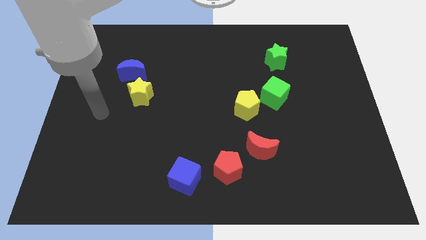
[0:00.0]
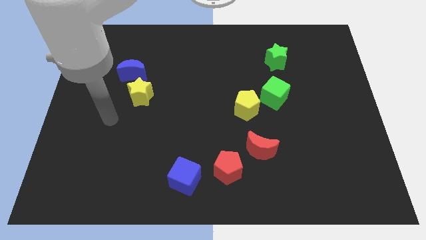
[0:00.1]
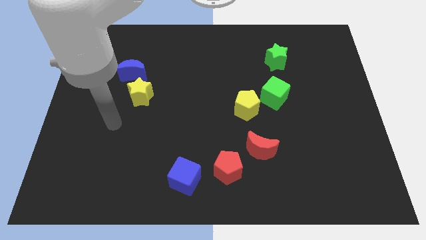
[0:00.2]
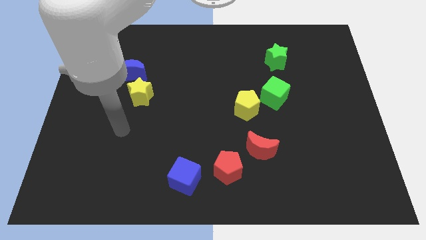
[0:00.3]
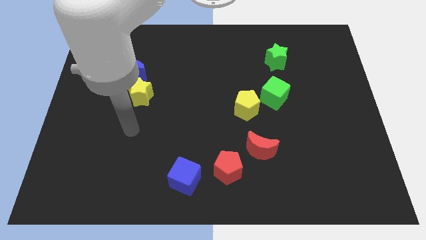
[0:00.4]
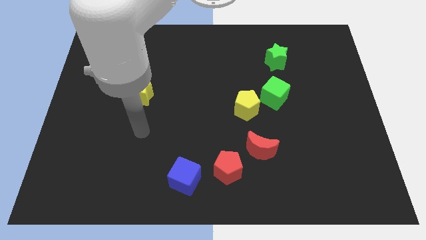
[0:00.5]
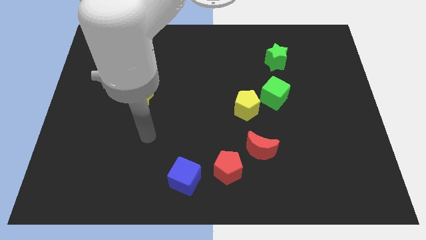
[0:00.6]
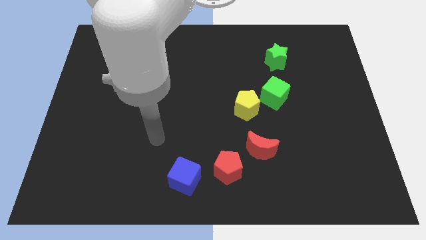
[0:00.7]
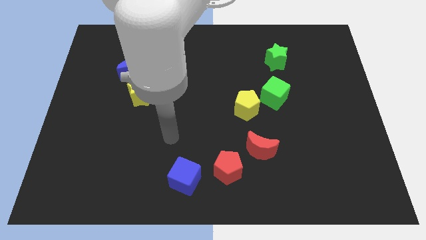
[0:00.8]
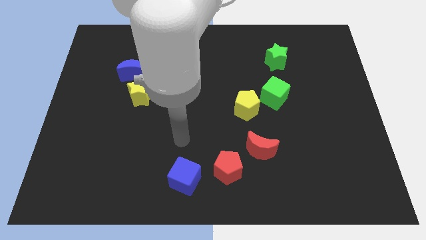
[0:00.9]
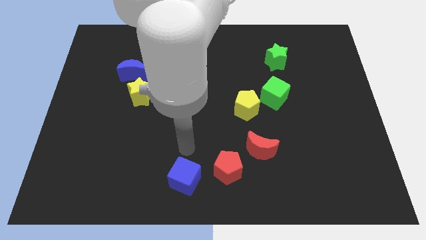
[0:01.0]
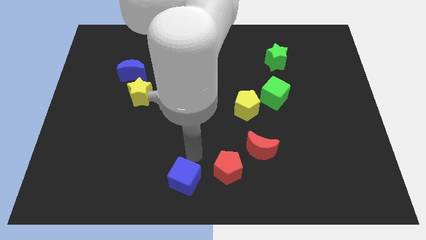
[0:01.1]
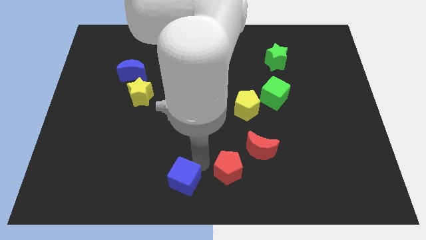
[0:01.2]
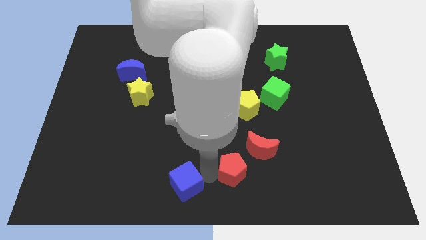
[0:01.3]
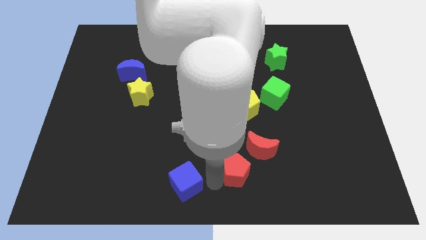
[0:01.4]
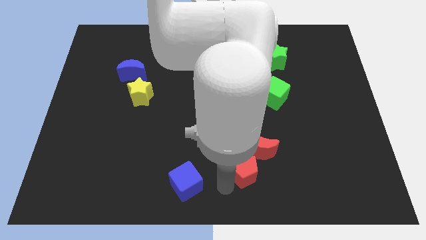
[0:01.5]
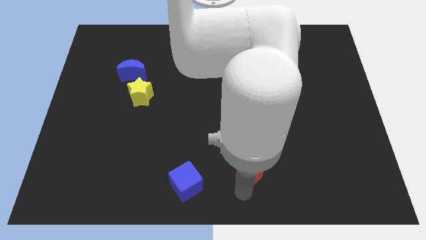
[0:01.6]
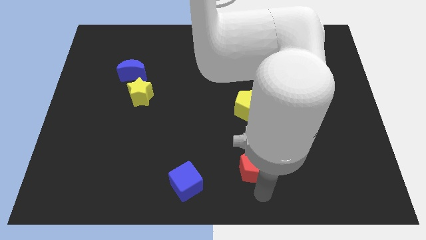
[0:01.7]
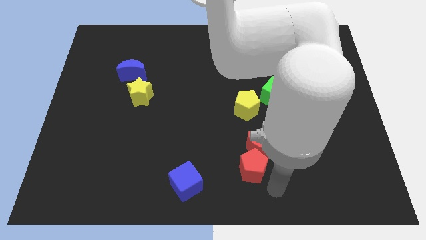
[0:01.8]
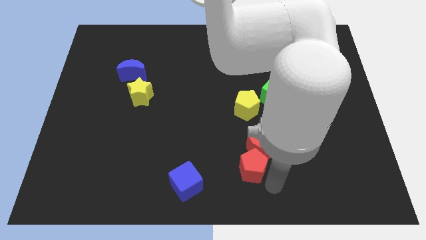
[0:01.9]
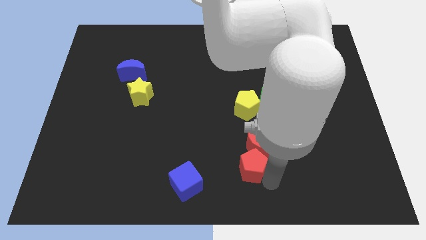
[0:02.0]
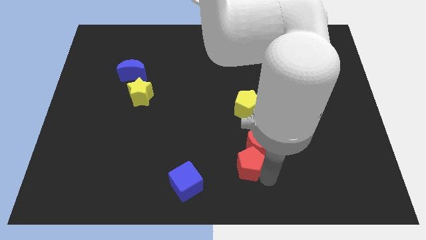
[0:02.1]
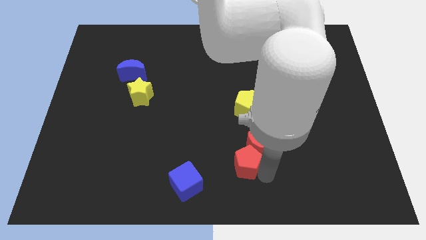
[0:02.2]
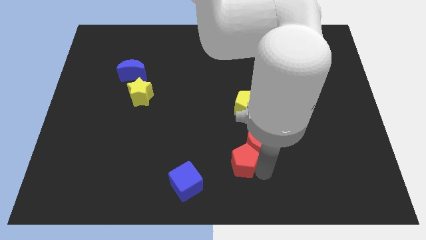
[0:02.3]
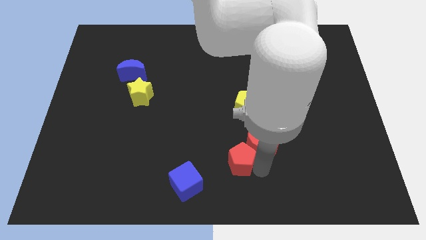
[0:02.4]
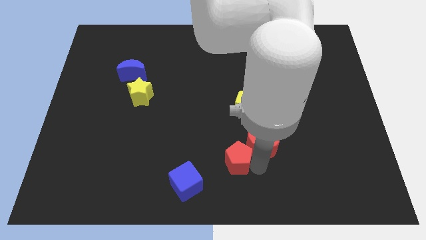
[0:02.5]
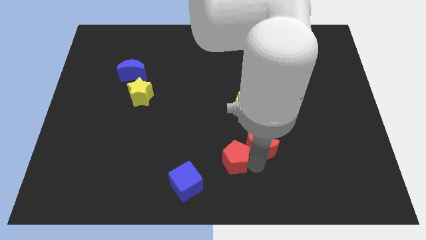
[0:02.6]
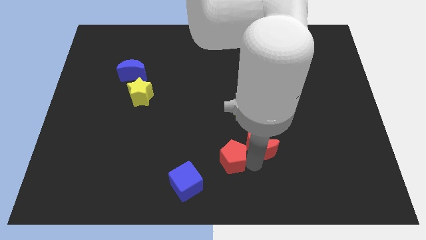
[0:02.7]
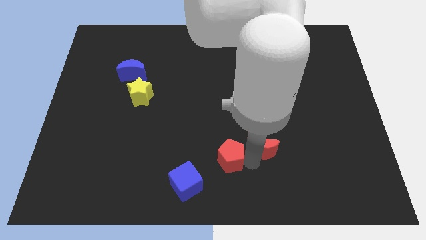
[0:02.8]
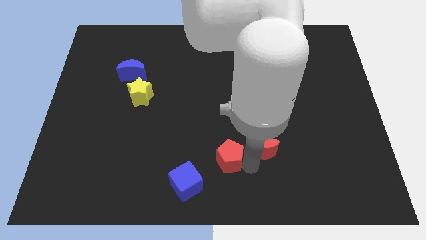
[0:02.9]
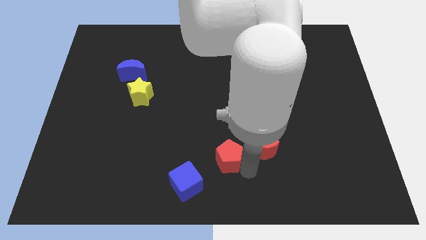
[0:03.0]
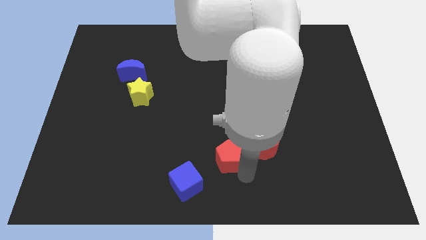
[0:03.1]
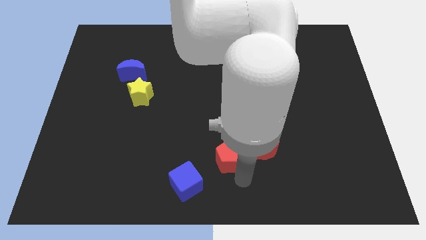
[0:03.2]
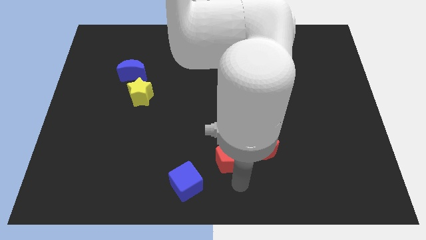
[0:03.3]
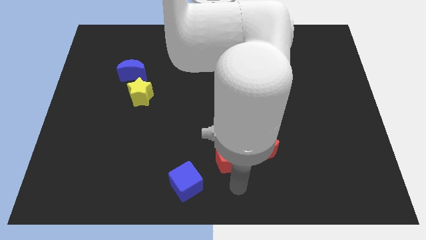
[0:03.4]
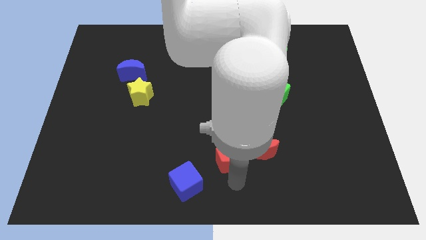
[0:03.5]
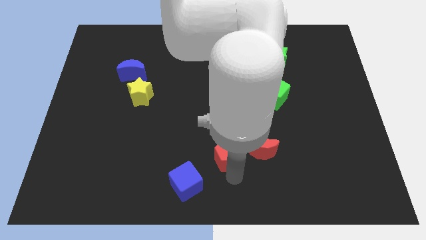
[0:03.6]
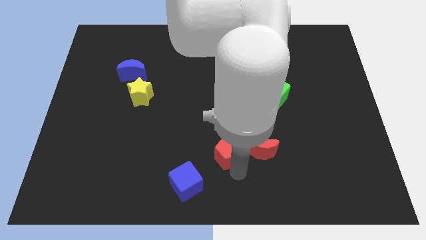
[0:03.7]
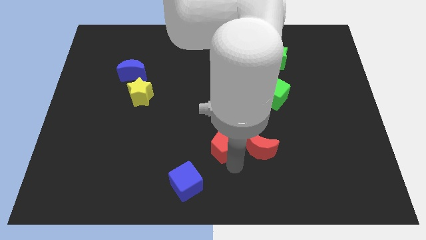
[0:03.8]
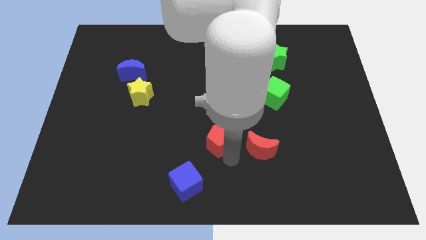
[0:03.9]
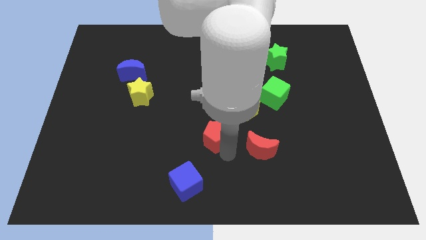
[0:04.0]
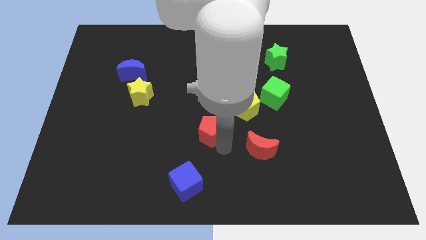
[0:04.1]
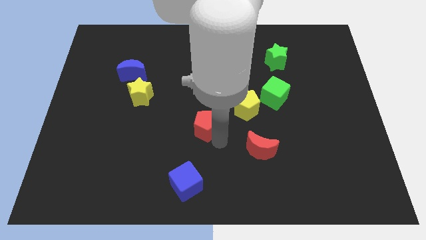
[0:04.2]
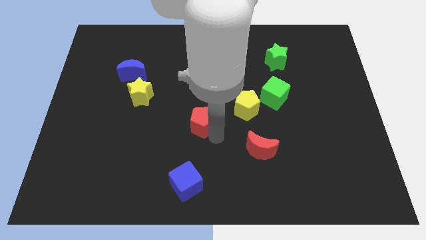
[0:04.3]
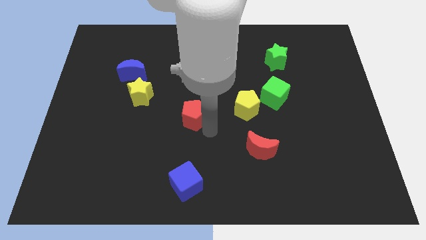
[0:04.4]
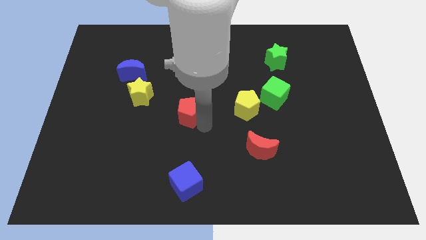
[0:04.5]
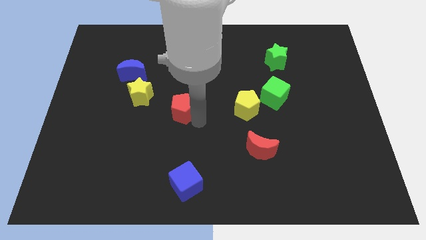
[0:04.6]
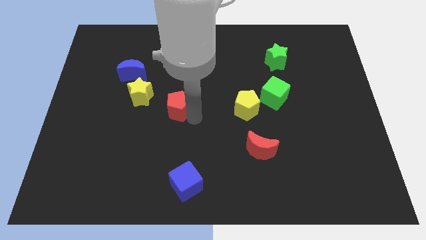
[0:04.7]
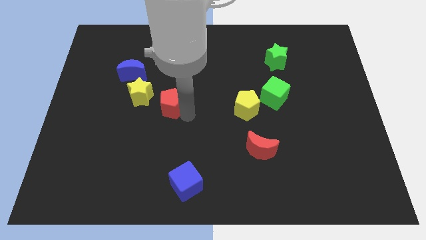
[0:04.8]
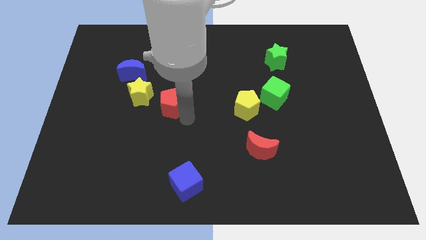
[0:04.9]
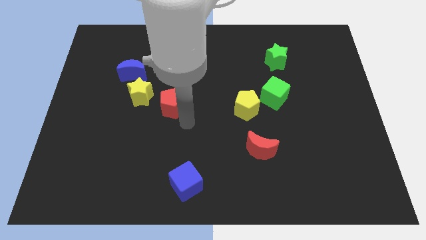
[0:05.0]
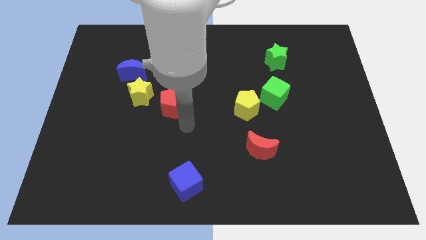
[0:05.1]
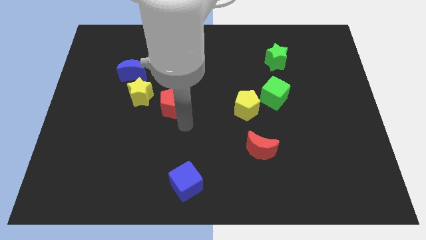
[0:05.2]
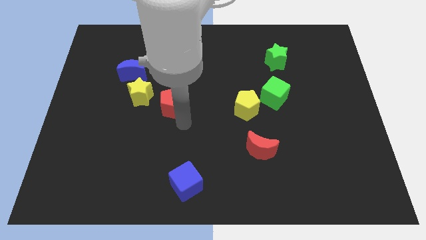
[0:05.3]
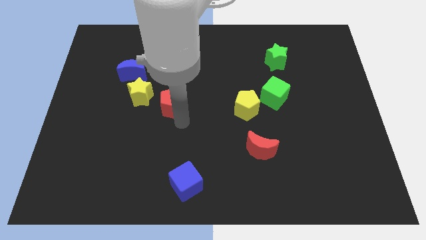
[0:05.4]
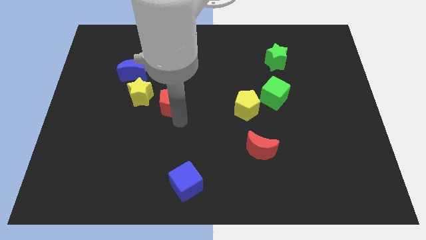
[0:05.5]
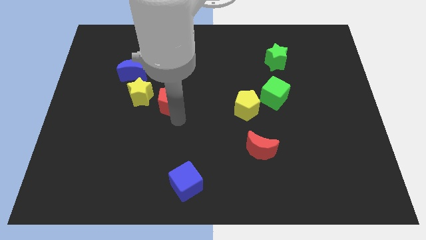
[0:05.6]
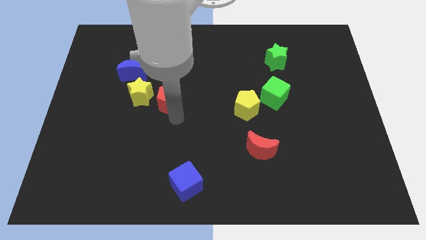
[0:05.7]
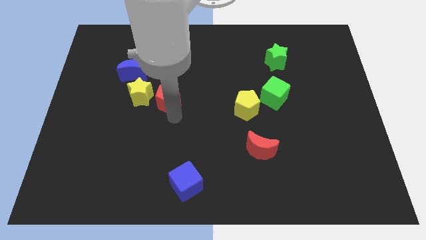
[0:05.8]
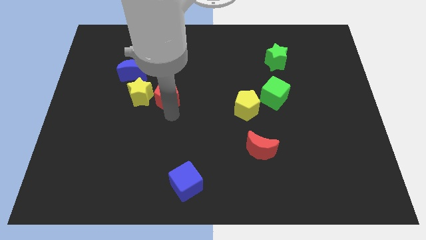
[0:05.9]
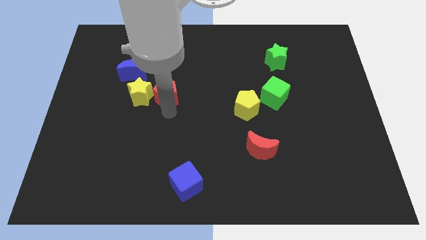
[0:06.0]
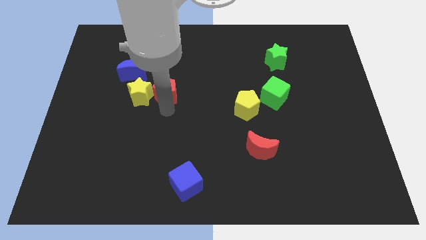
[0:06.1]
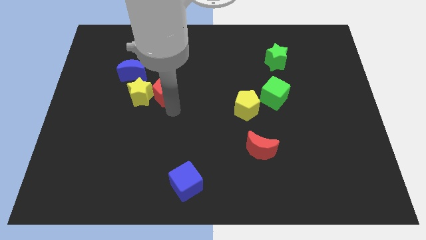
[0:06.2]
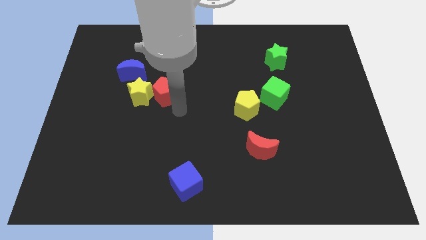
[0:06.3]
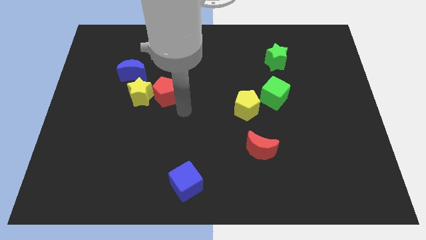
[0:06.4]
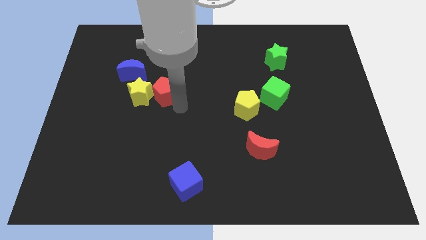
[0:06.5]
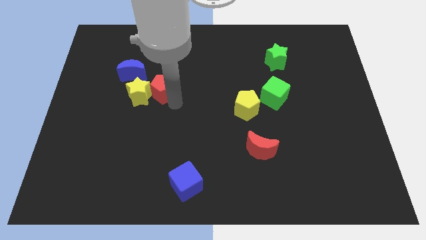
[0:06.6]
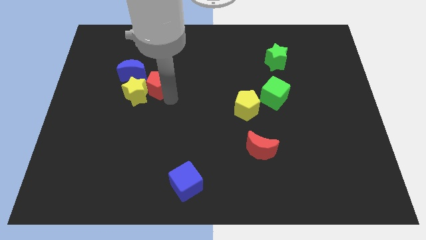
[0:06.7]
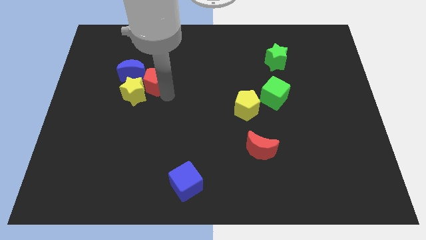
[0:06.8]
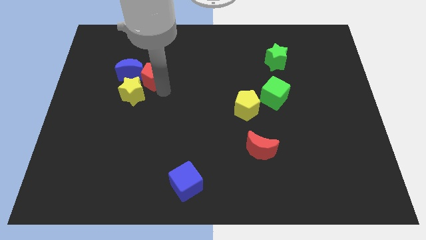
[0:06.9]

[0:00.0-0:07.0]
push the red pentagon towards the blue moon
